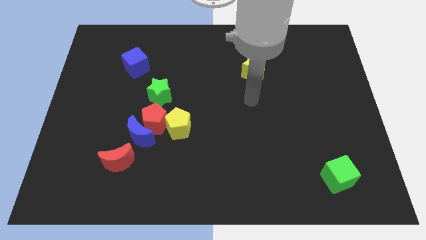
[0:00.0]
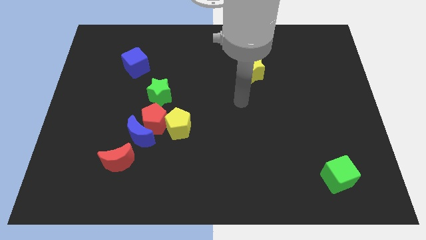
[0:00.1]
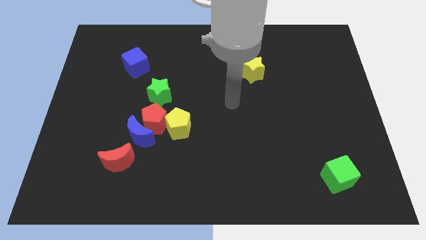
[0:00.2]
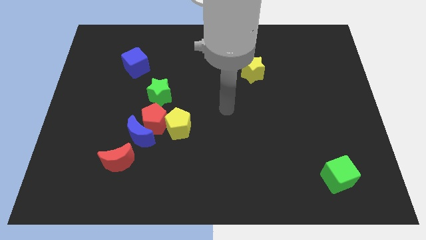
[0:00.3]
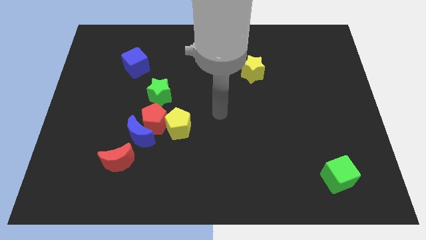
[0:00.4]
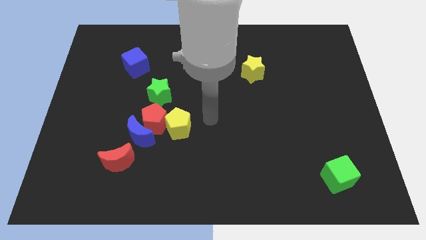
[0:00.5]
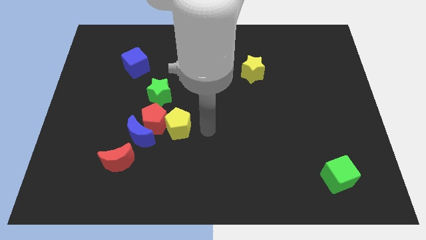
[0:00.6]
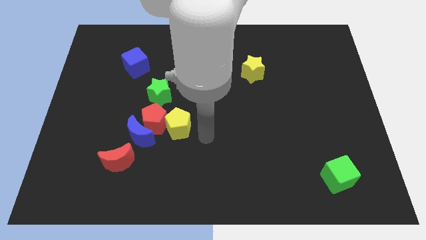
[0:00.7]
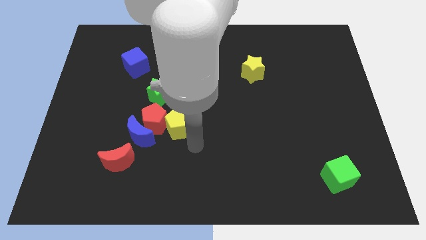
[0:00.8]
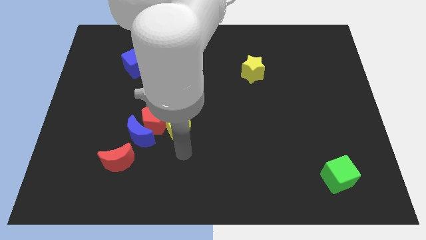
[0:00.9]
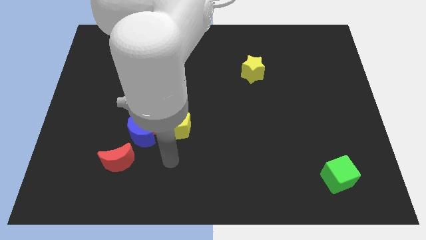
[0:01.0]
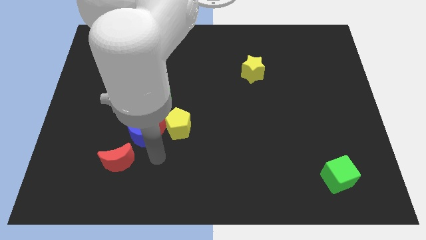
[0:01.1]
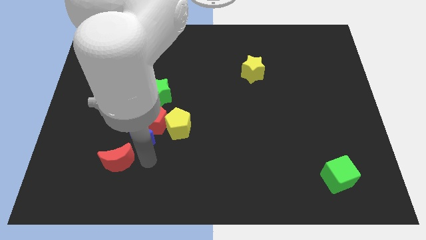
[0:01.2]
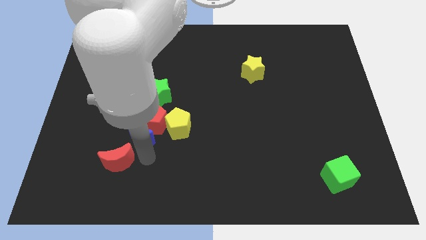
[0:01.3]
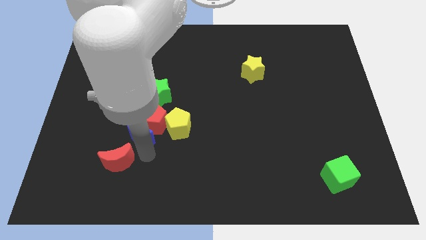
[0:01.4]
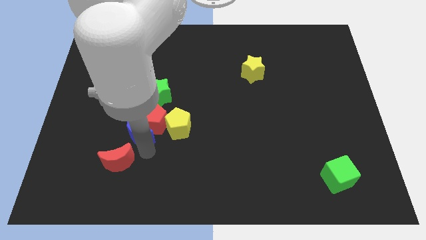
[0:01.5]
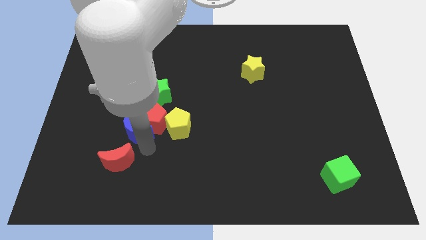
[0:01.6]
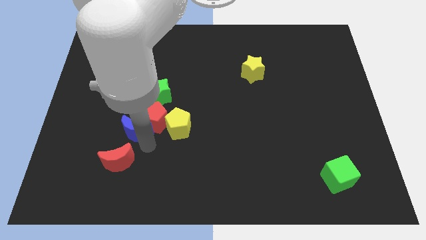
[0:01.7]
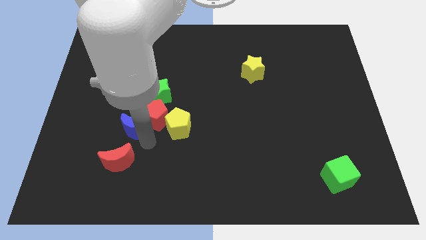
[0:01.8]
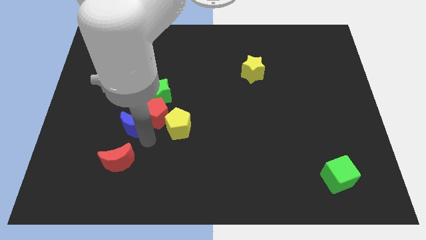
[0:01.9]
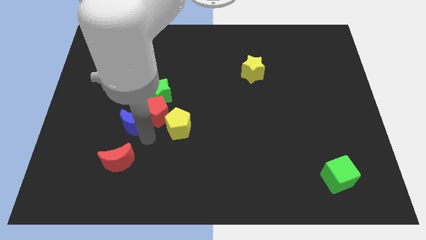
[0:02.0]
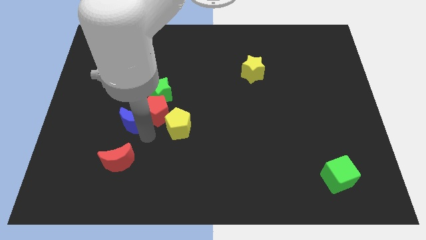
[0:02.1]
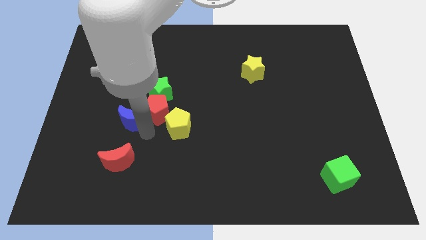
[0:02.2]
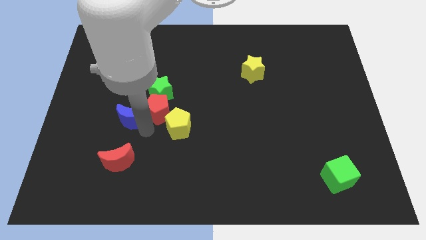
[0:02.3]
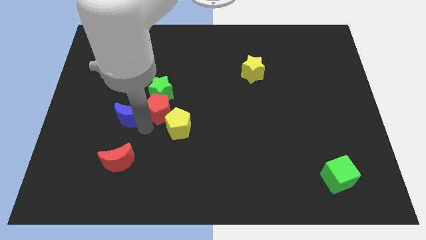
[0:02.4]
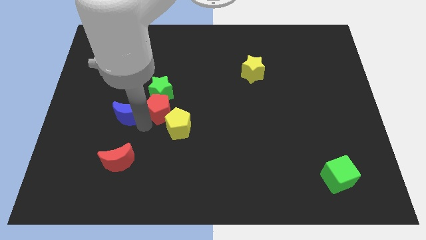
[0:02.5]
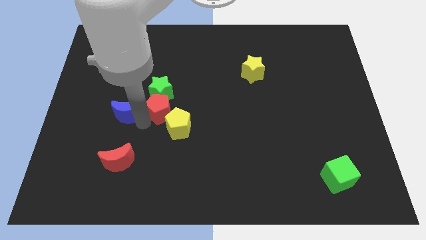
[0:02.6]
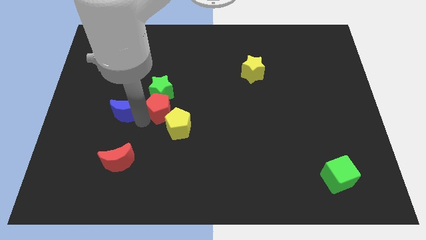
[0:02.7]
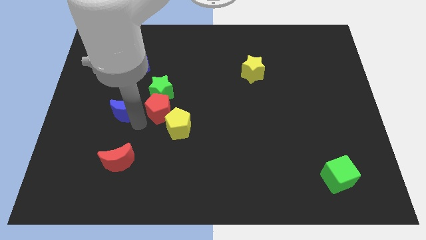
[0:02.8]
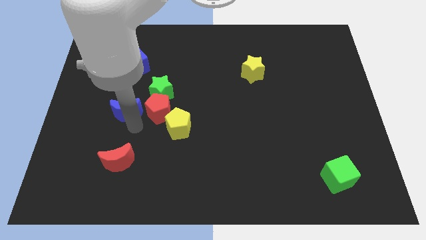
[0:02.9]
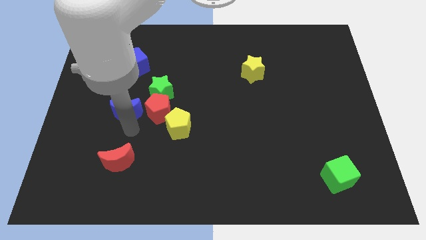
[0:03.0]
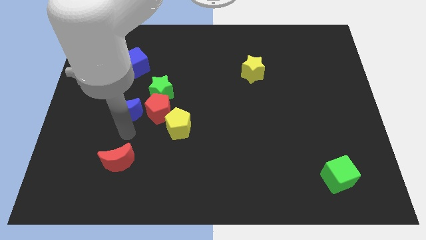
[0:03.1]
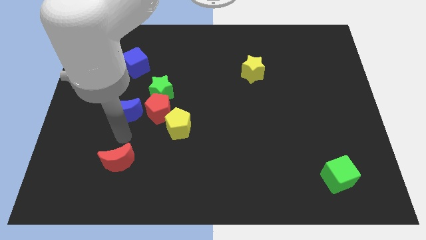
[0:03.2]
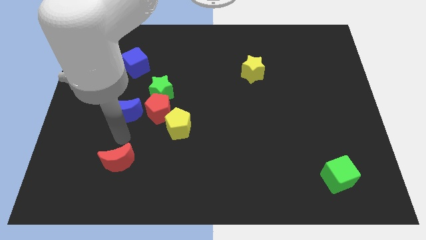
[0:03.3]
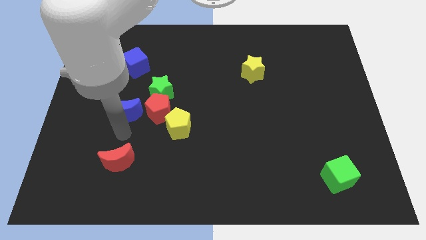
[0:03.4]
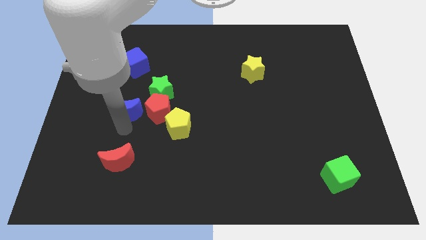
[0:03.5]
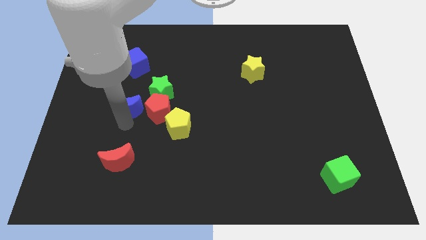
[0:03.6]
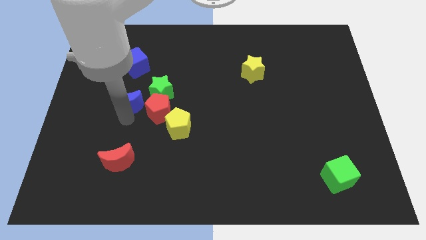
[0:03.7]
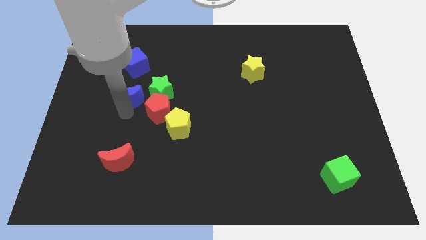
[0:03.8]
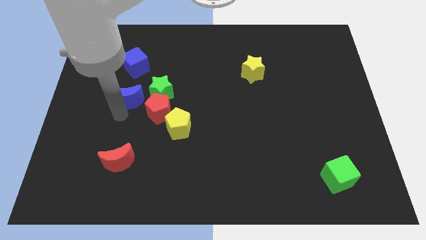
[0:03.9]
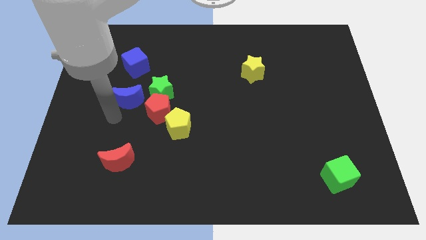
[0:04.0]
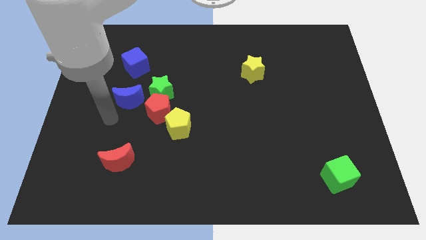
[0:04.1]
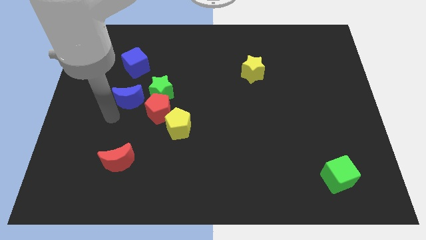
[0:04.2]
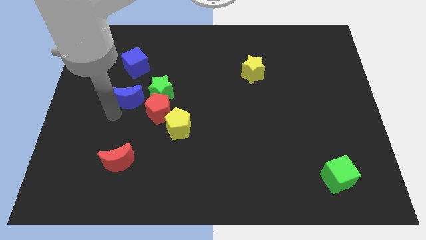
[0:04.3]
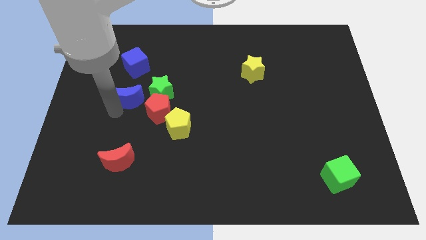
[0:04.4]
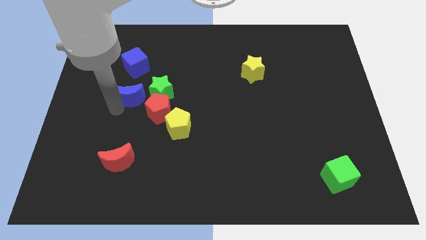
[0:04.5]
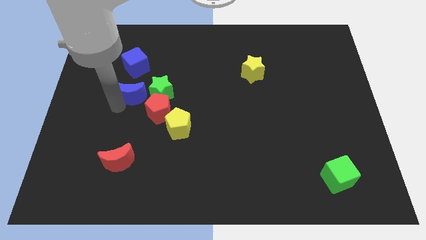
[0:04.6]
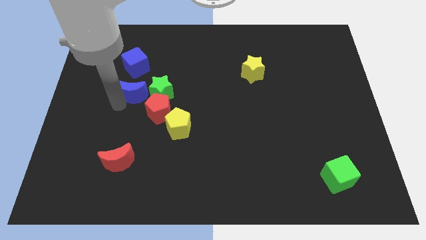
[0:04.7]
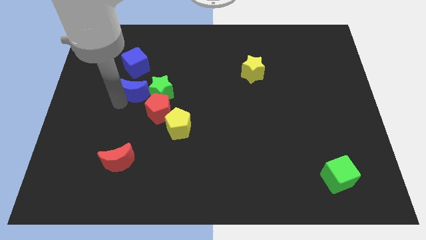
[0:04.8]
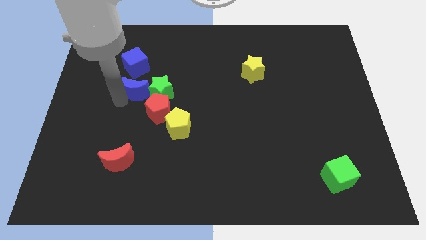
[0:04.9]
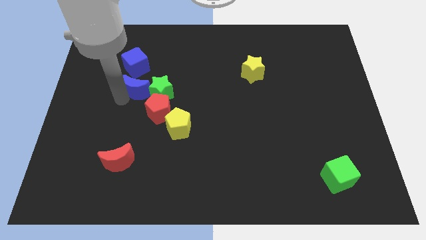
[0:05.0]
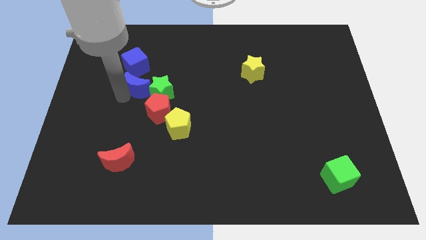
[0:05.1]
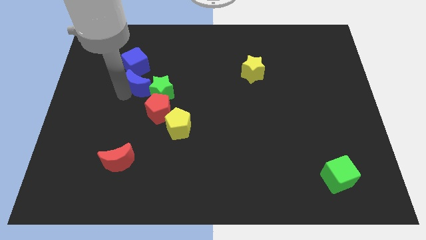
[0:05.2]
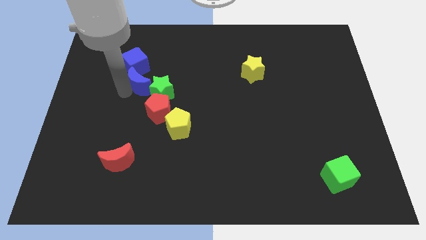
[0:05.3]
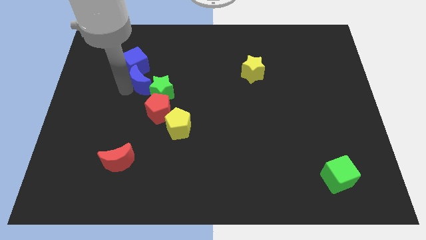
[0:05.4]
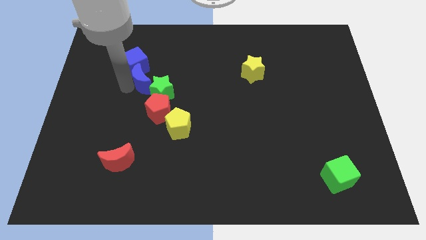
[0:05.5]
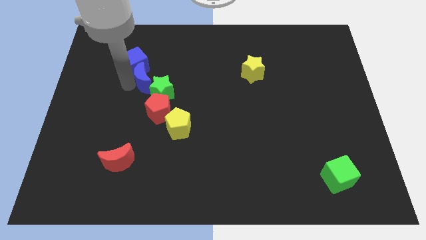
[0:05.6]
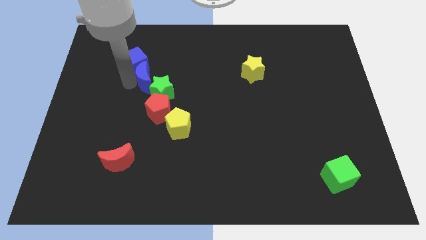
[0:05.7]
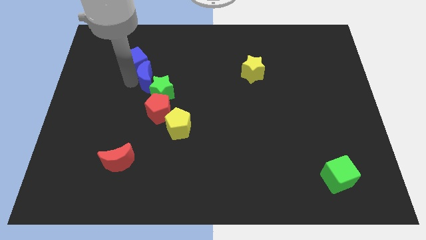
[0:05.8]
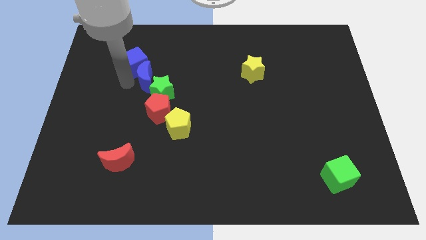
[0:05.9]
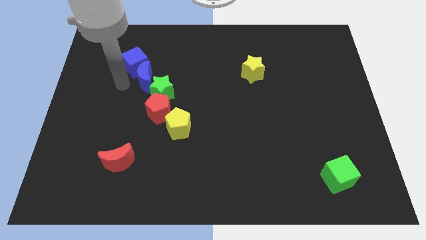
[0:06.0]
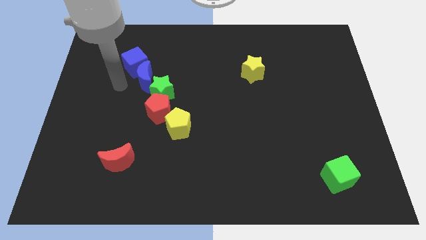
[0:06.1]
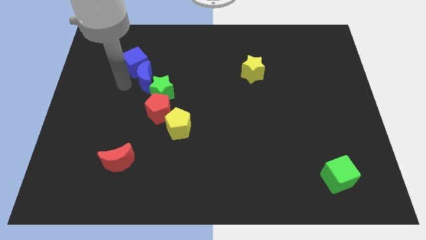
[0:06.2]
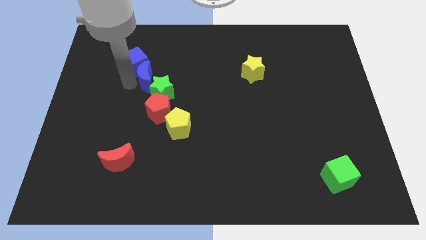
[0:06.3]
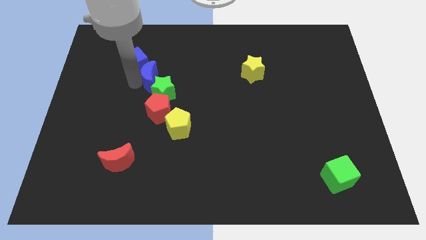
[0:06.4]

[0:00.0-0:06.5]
slide the blue moon just right of the blue cube

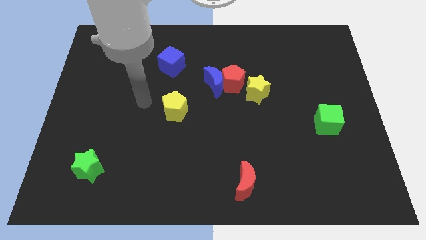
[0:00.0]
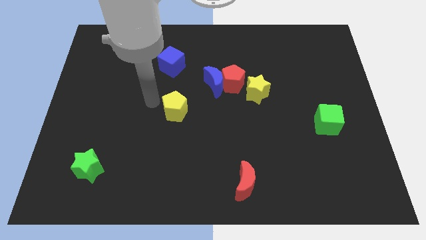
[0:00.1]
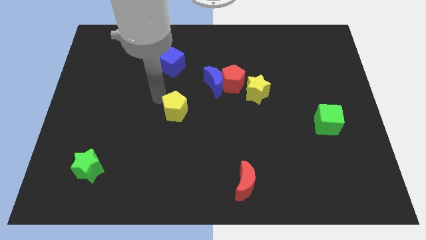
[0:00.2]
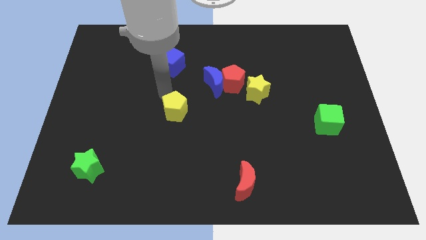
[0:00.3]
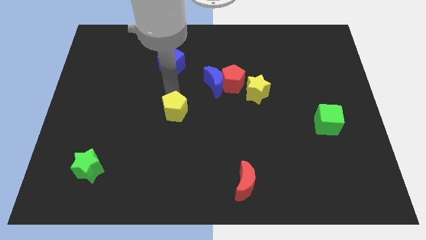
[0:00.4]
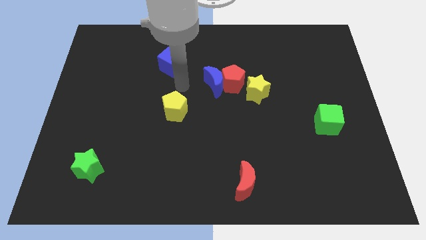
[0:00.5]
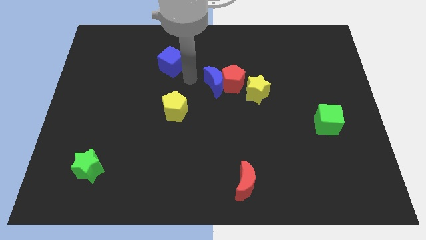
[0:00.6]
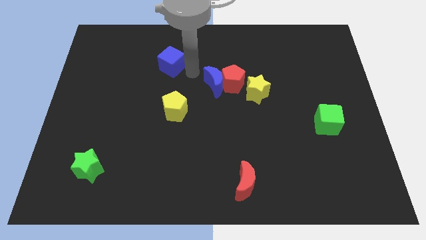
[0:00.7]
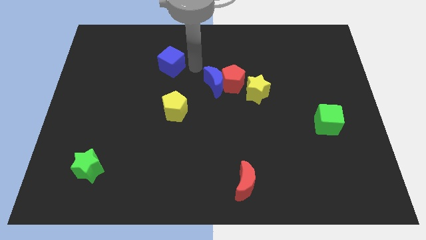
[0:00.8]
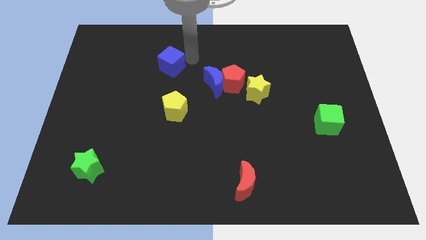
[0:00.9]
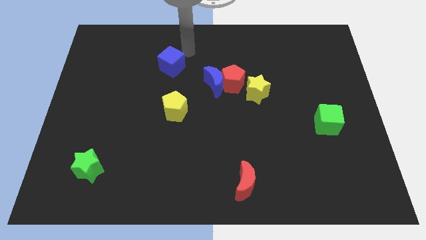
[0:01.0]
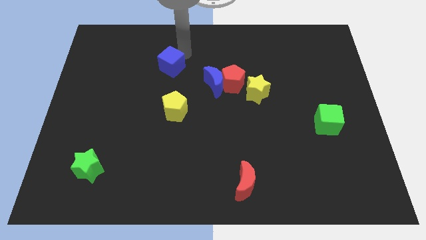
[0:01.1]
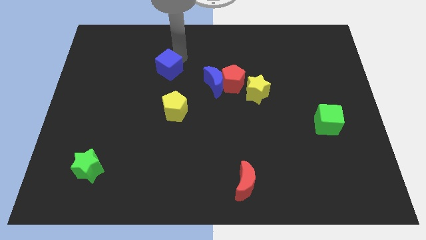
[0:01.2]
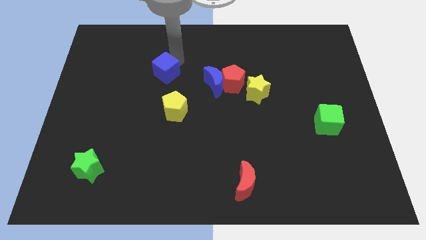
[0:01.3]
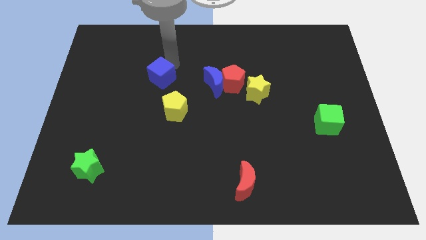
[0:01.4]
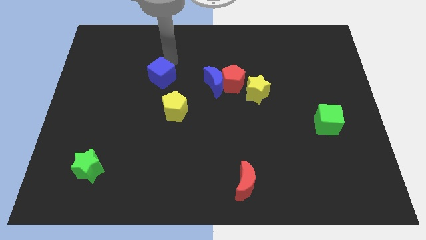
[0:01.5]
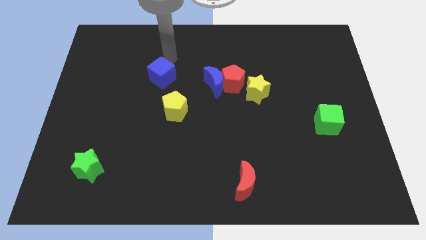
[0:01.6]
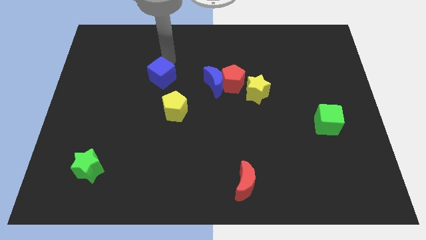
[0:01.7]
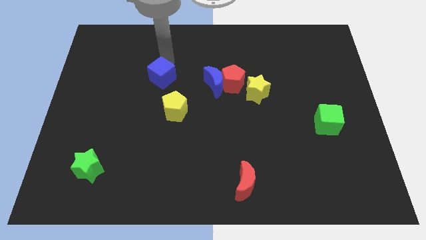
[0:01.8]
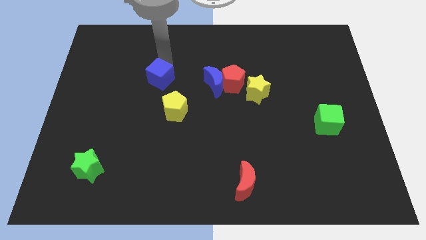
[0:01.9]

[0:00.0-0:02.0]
move the blue cube to the top left side of the yellow pentagon
